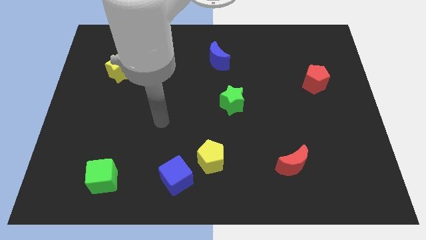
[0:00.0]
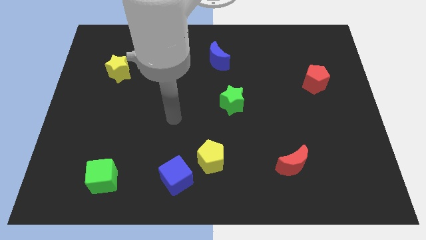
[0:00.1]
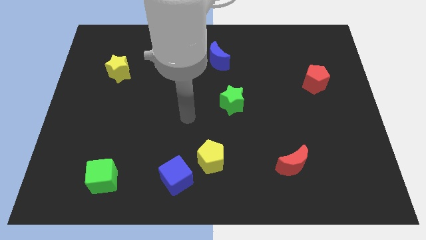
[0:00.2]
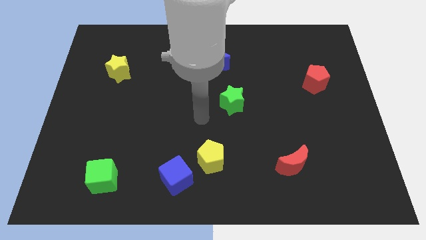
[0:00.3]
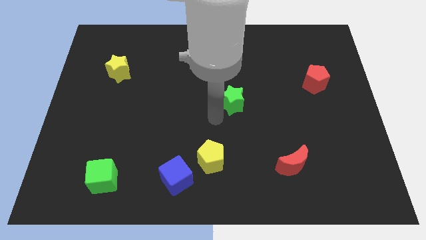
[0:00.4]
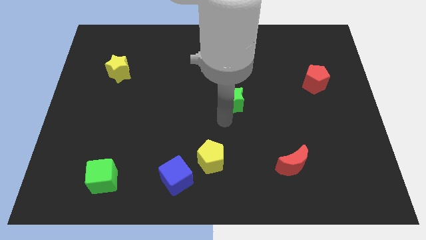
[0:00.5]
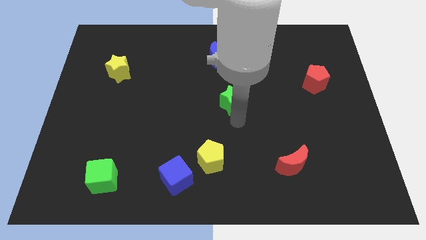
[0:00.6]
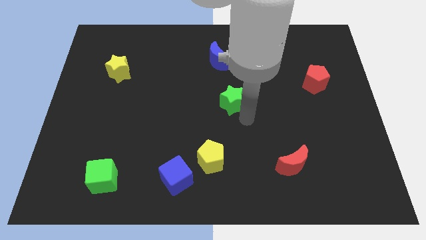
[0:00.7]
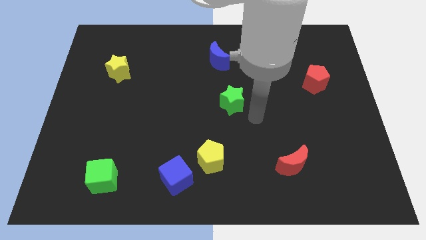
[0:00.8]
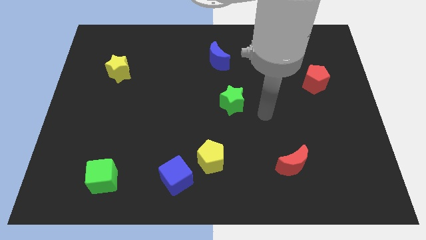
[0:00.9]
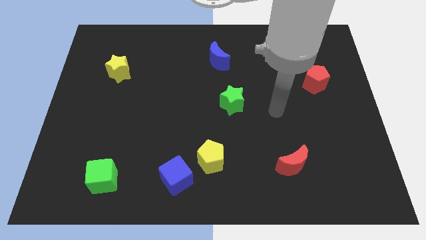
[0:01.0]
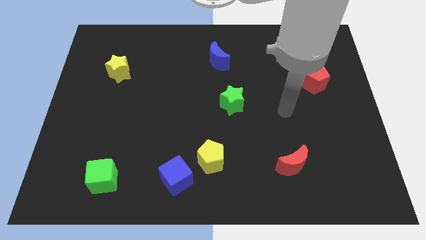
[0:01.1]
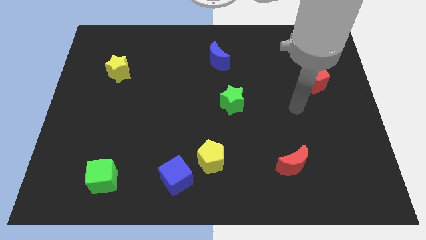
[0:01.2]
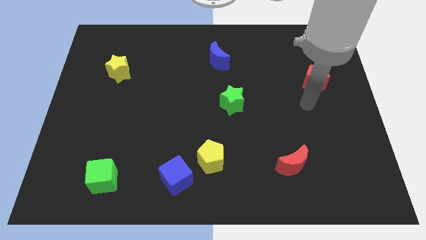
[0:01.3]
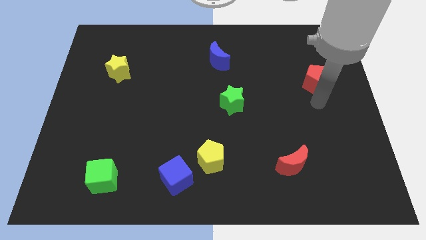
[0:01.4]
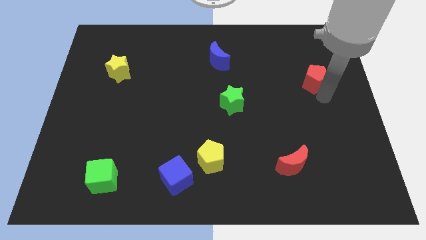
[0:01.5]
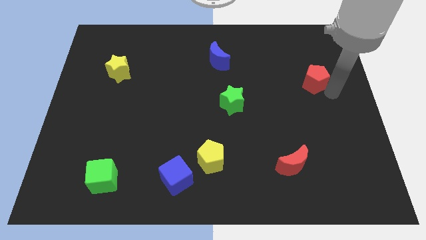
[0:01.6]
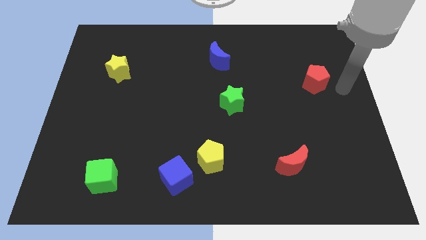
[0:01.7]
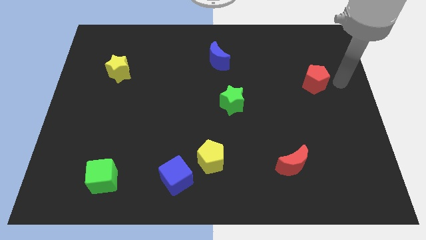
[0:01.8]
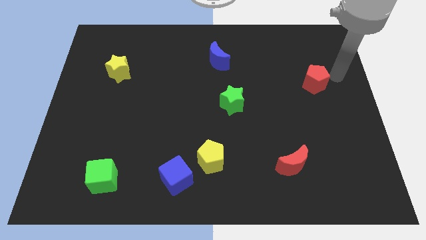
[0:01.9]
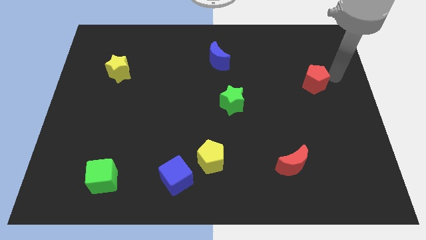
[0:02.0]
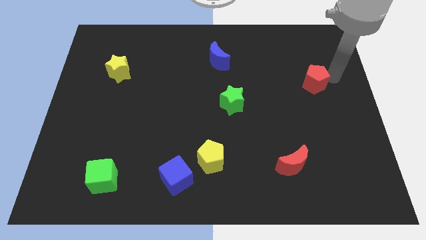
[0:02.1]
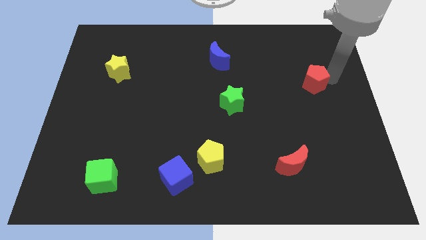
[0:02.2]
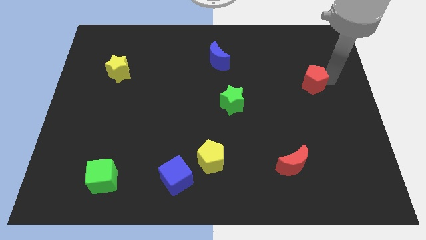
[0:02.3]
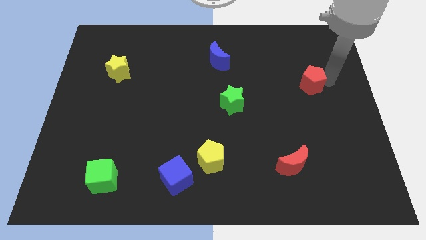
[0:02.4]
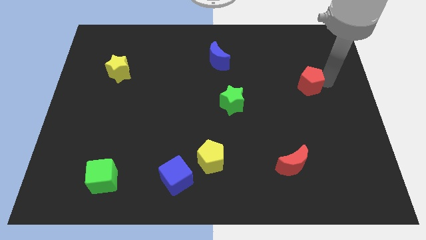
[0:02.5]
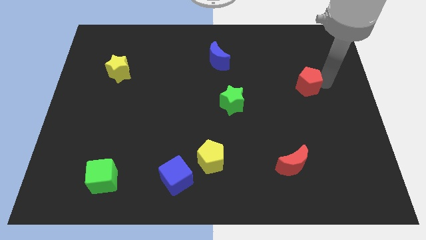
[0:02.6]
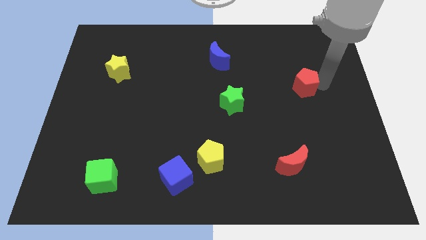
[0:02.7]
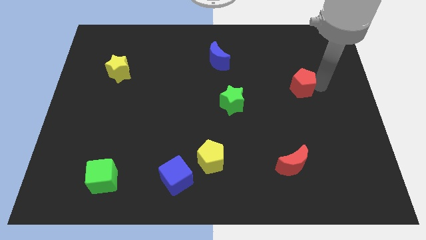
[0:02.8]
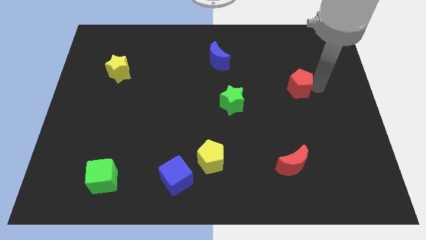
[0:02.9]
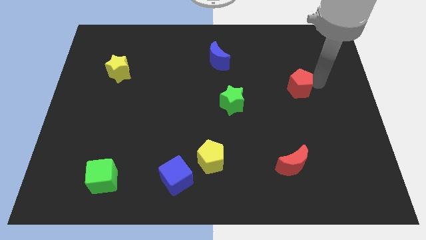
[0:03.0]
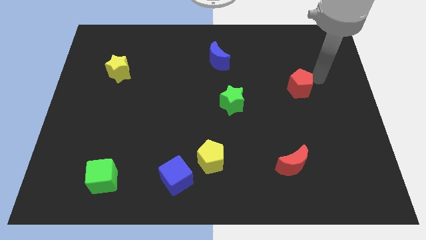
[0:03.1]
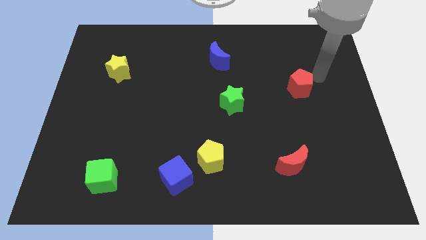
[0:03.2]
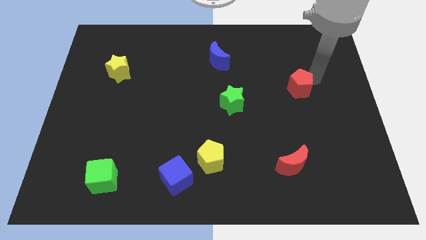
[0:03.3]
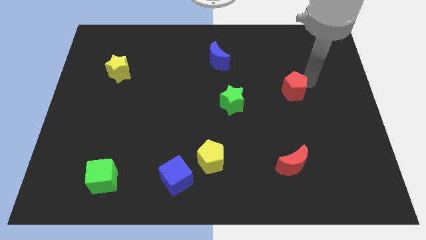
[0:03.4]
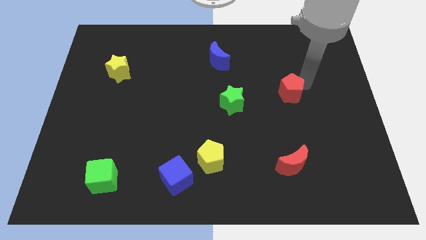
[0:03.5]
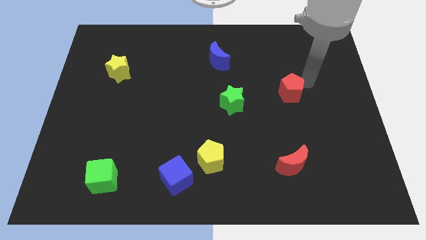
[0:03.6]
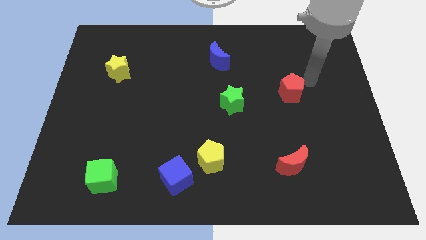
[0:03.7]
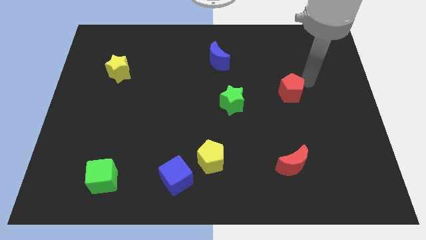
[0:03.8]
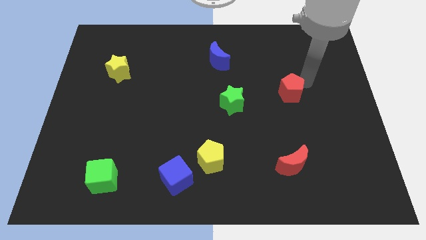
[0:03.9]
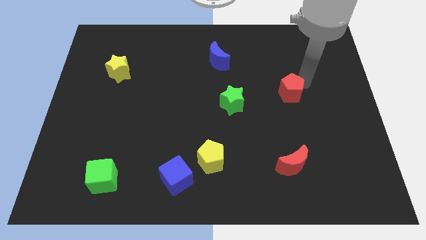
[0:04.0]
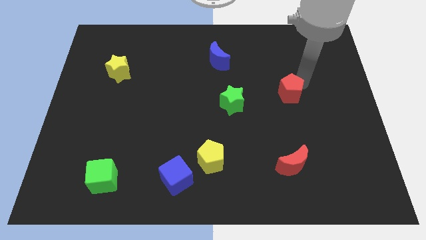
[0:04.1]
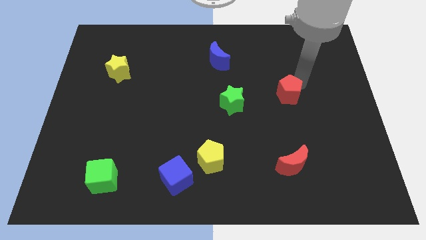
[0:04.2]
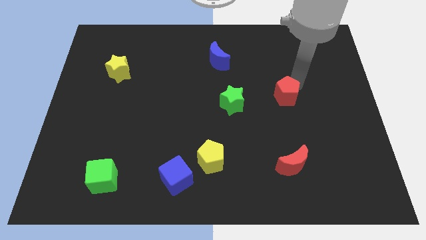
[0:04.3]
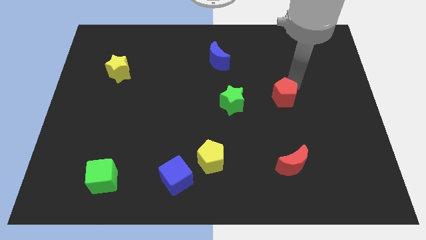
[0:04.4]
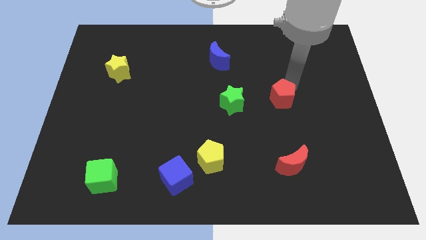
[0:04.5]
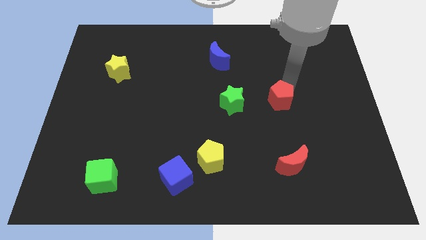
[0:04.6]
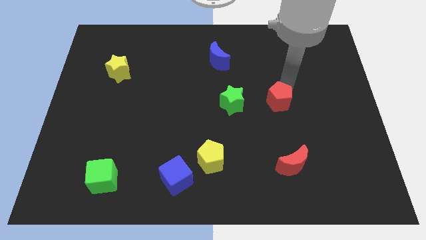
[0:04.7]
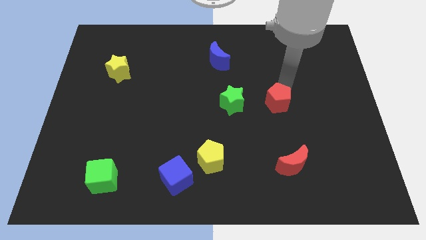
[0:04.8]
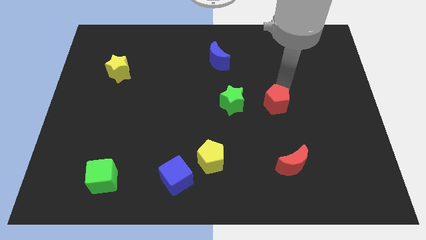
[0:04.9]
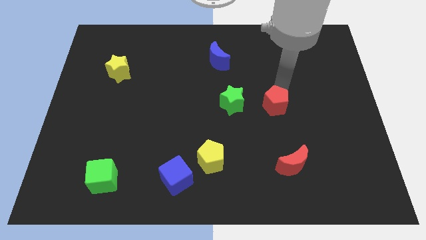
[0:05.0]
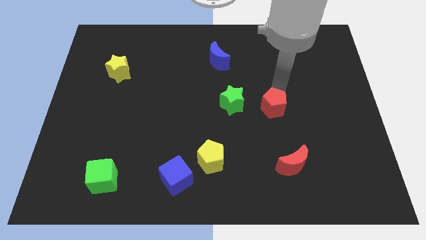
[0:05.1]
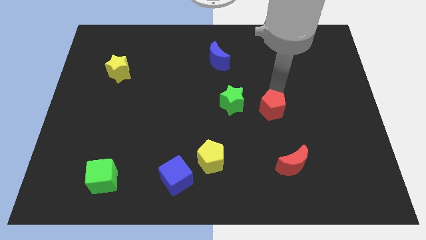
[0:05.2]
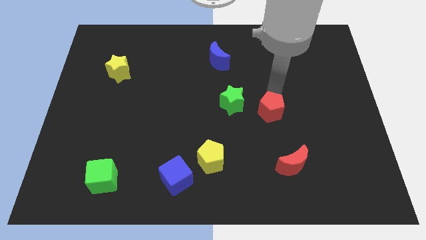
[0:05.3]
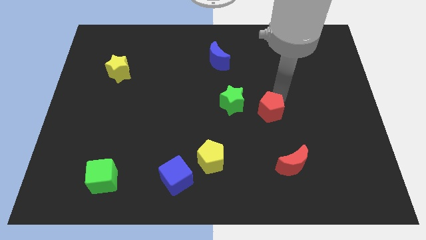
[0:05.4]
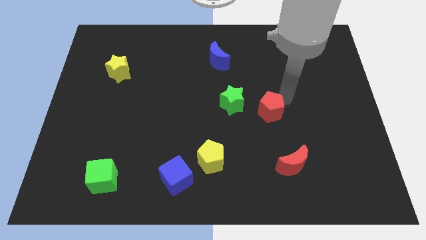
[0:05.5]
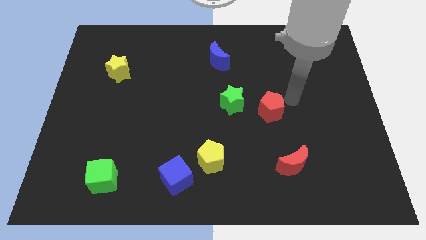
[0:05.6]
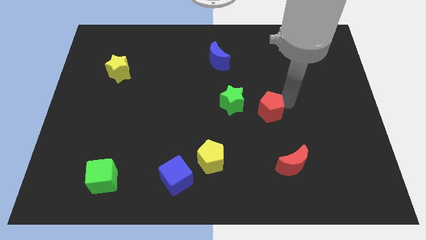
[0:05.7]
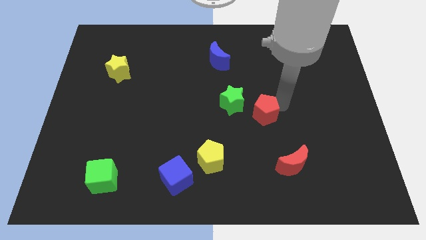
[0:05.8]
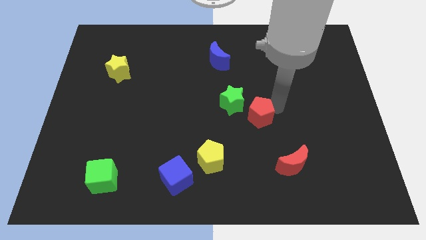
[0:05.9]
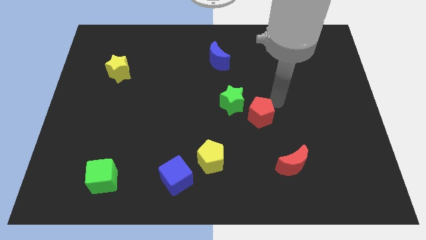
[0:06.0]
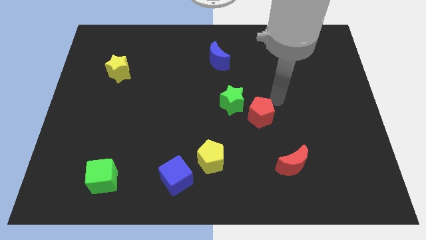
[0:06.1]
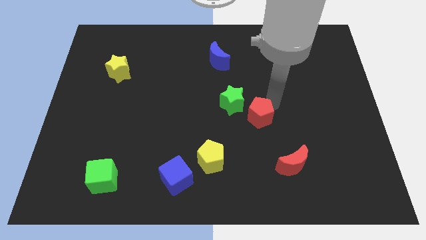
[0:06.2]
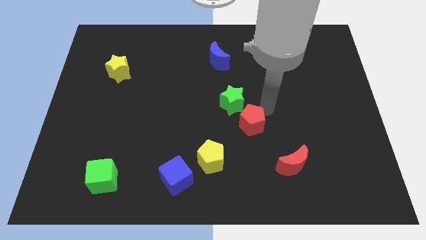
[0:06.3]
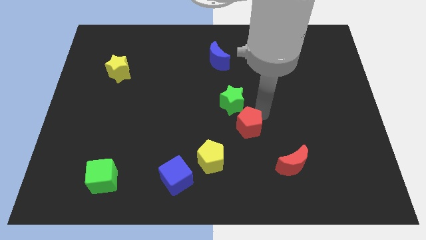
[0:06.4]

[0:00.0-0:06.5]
put the red pentagon to the top right of the yellow pentagon
